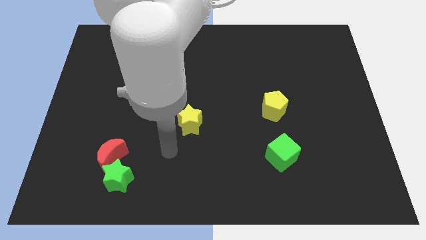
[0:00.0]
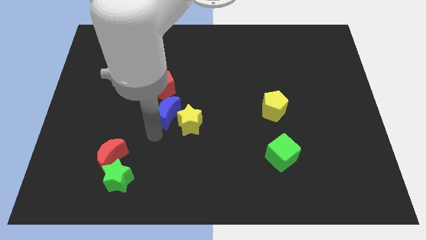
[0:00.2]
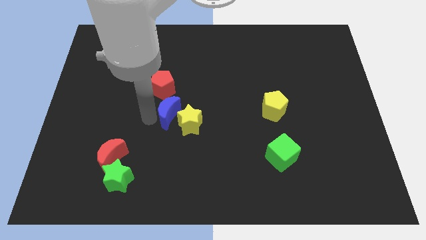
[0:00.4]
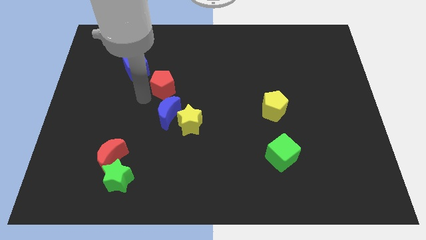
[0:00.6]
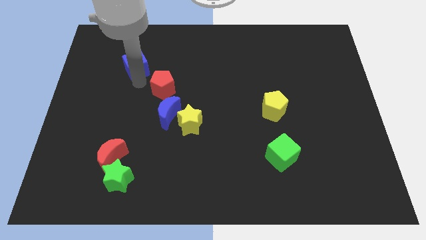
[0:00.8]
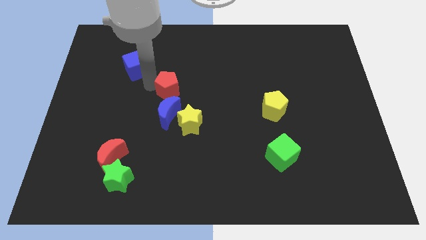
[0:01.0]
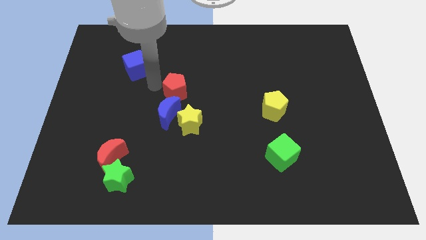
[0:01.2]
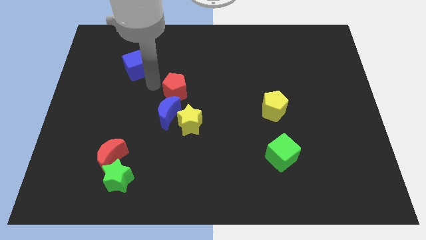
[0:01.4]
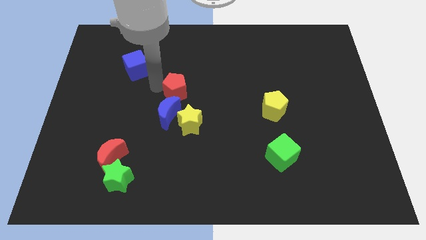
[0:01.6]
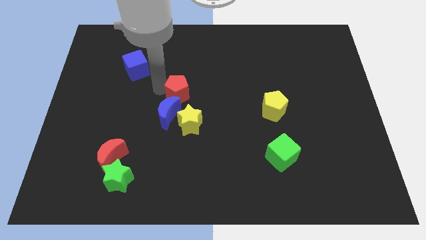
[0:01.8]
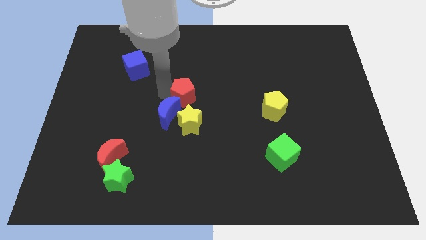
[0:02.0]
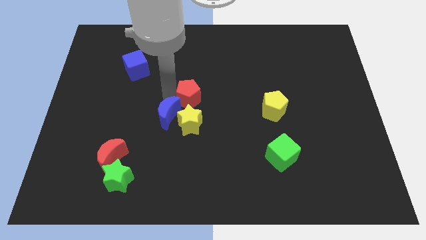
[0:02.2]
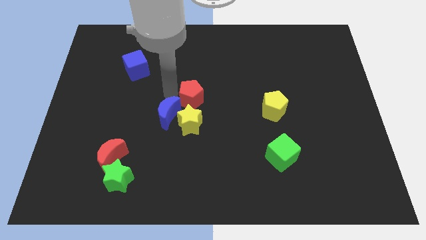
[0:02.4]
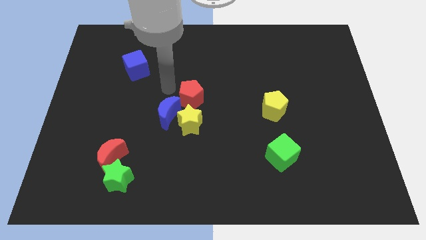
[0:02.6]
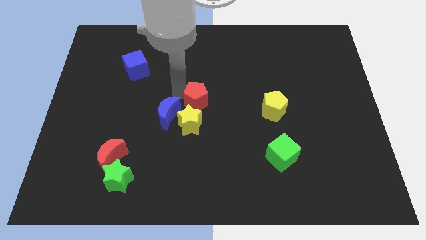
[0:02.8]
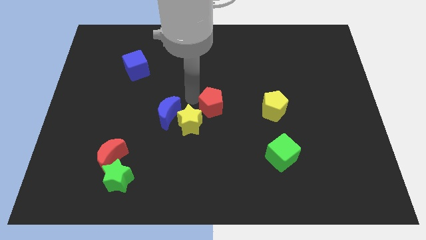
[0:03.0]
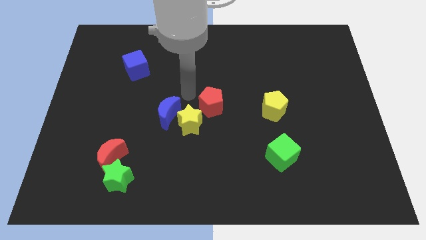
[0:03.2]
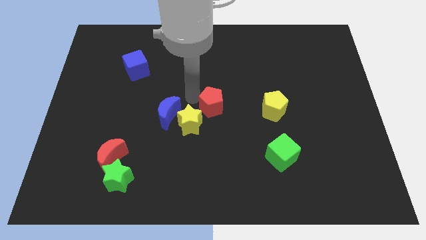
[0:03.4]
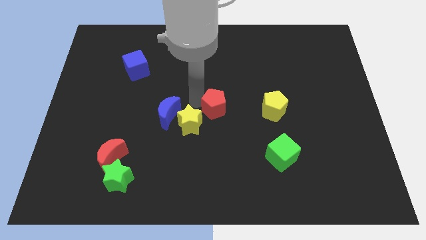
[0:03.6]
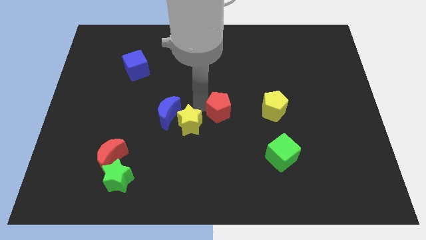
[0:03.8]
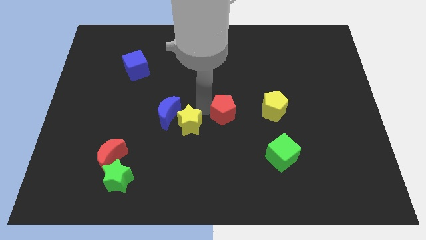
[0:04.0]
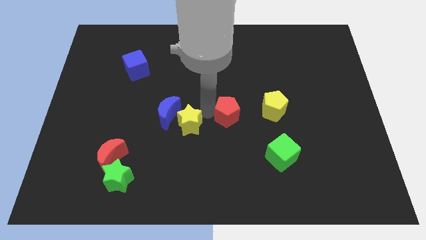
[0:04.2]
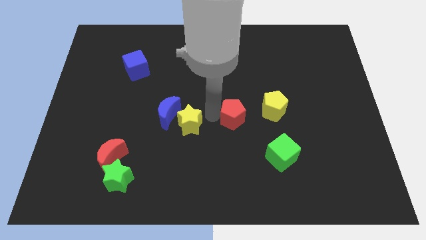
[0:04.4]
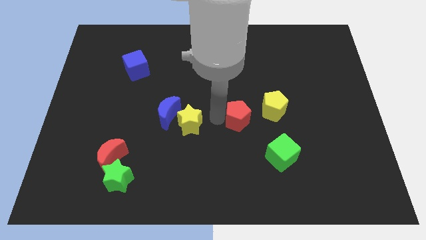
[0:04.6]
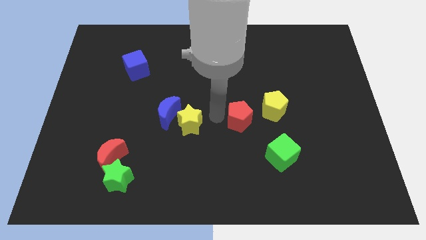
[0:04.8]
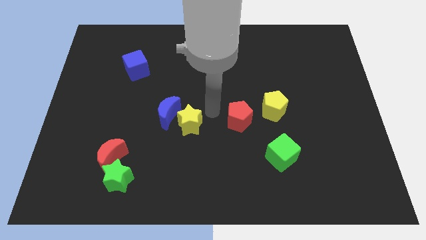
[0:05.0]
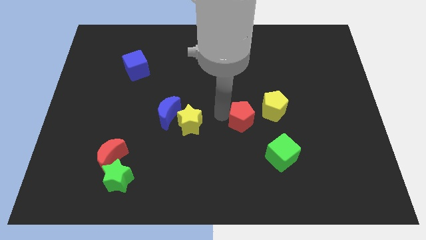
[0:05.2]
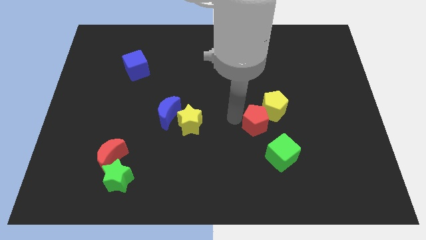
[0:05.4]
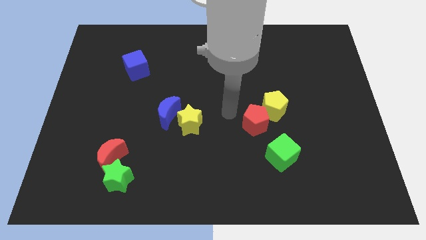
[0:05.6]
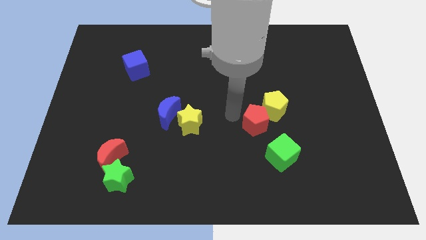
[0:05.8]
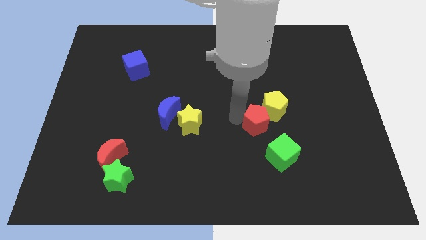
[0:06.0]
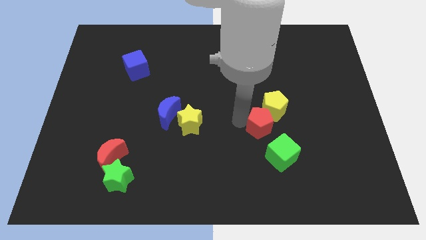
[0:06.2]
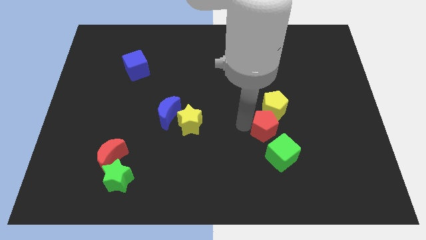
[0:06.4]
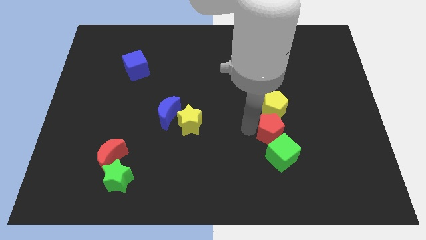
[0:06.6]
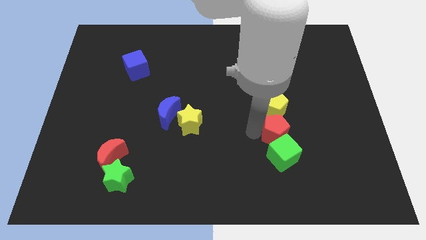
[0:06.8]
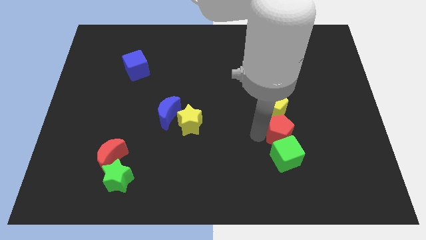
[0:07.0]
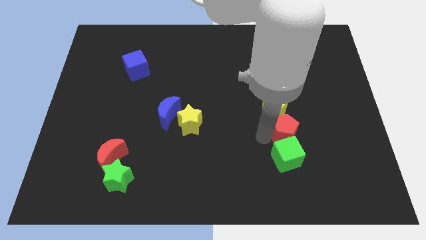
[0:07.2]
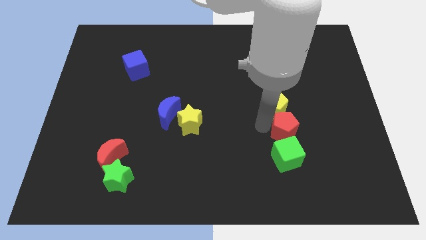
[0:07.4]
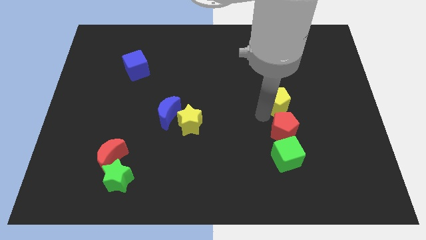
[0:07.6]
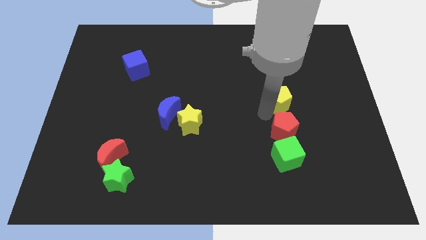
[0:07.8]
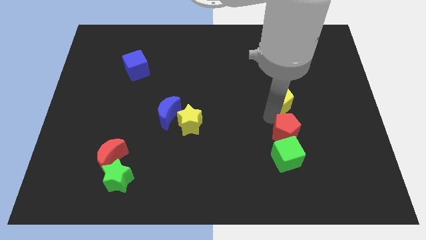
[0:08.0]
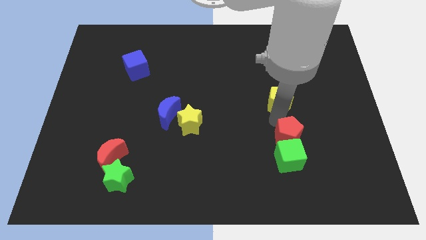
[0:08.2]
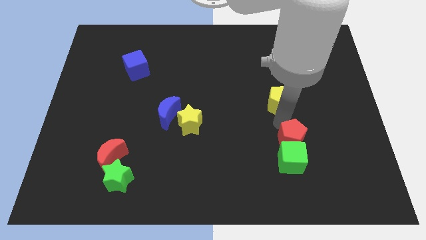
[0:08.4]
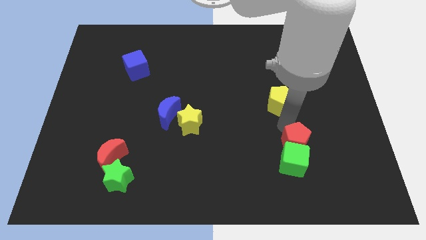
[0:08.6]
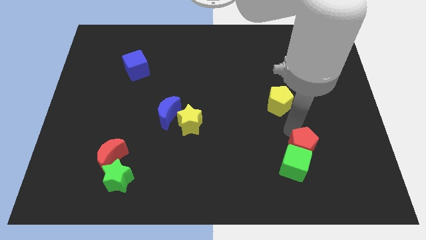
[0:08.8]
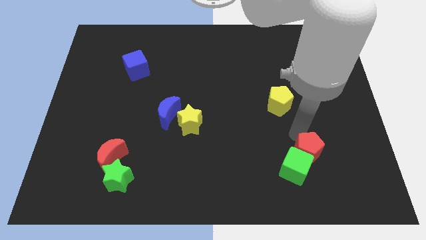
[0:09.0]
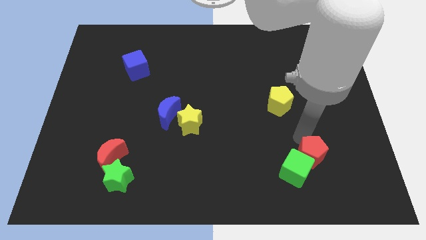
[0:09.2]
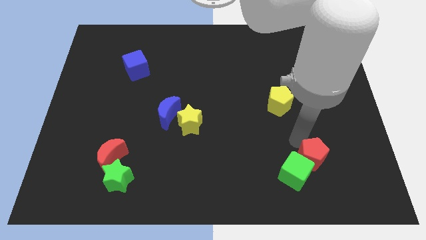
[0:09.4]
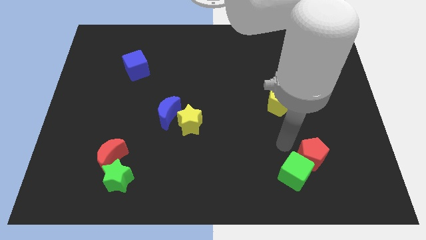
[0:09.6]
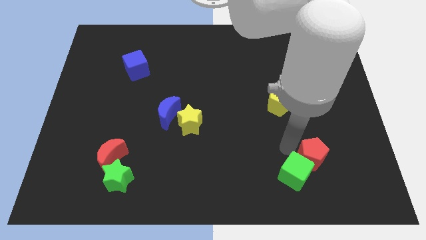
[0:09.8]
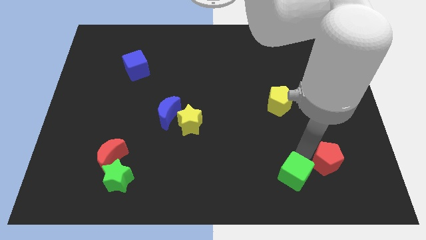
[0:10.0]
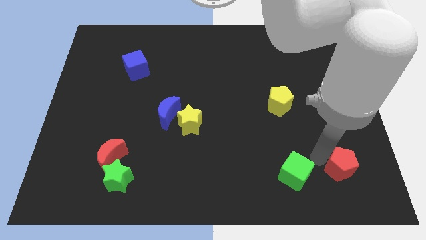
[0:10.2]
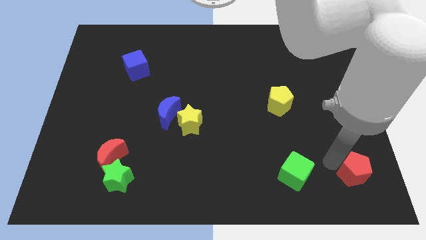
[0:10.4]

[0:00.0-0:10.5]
move the red pentagon to the bottom right

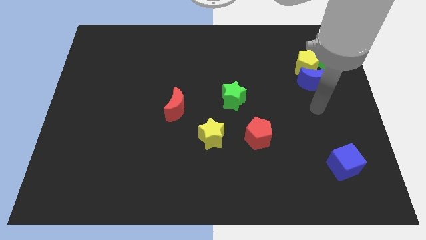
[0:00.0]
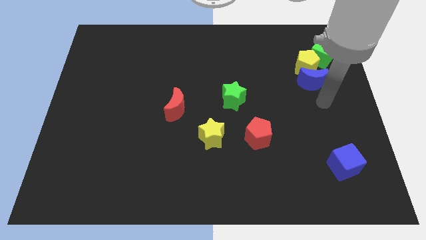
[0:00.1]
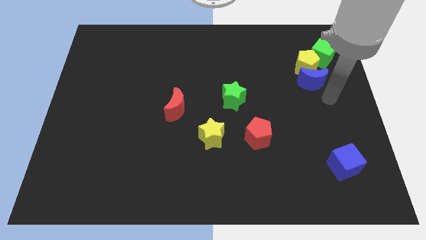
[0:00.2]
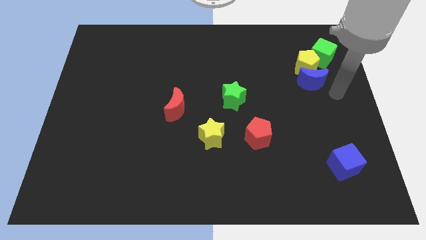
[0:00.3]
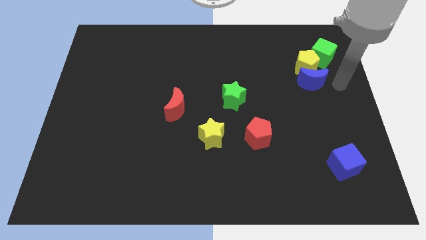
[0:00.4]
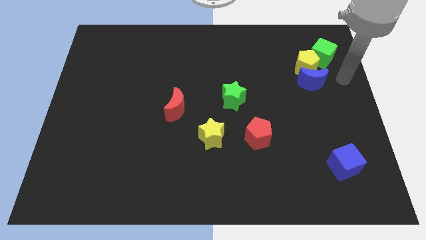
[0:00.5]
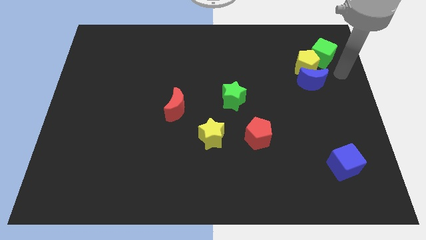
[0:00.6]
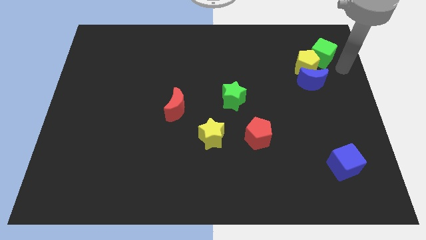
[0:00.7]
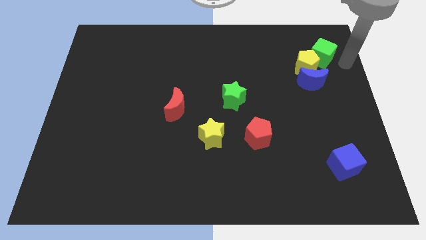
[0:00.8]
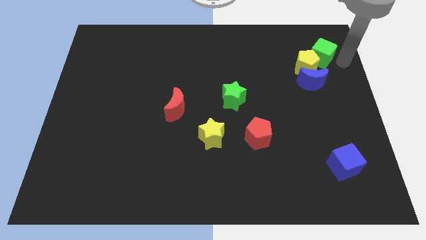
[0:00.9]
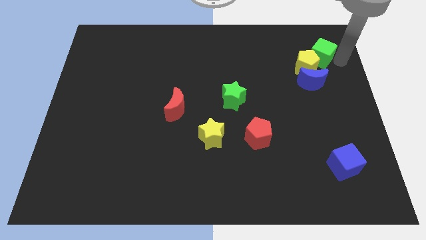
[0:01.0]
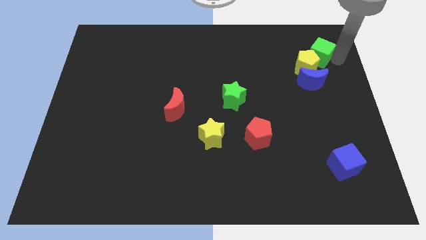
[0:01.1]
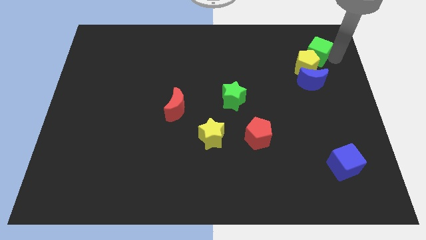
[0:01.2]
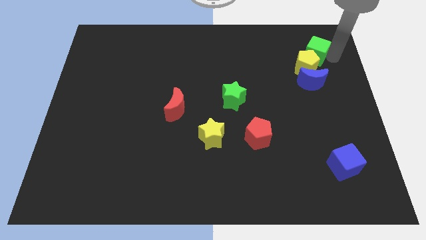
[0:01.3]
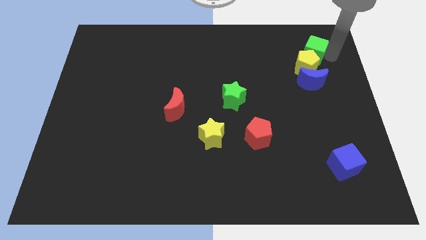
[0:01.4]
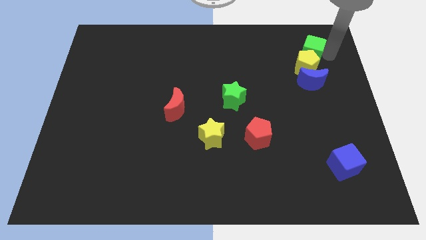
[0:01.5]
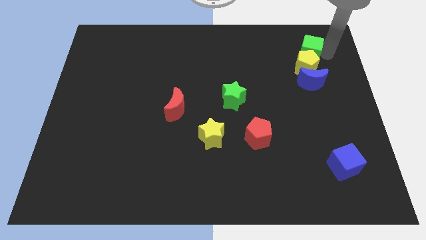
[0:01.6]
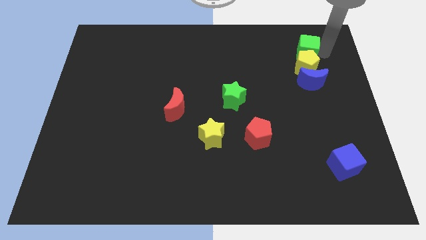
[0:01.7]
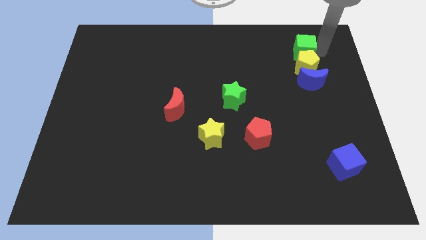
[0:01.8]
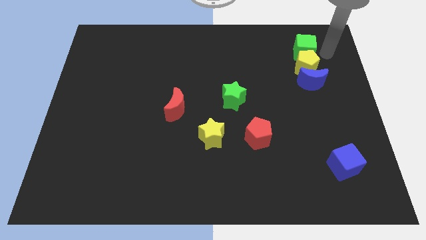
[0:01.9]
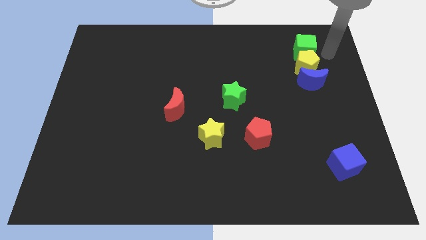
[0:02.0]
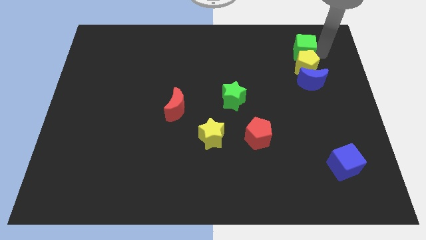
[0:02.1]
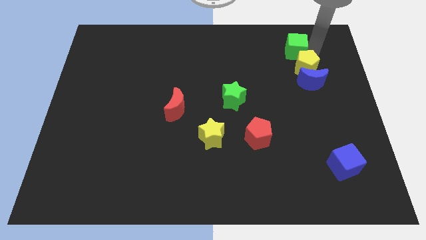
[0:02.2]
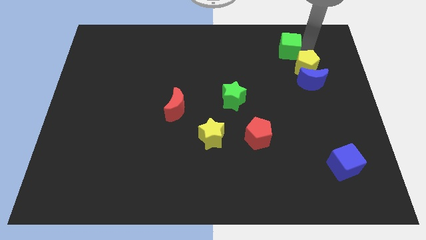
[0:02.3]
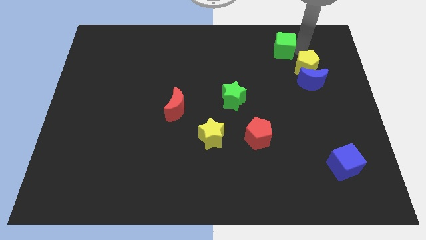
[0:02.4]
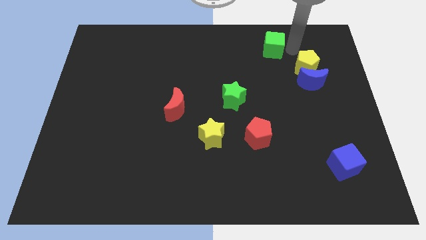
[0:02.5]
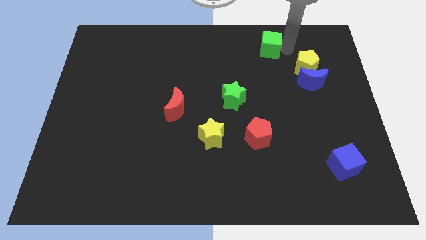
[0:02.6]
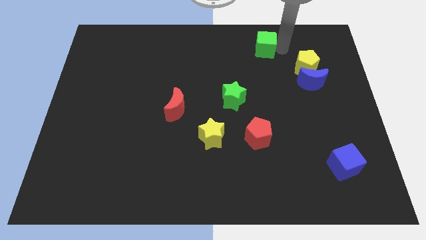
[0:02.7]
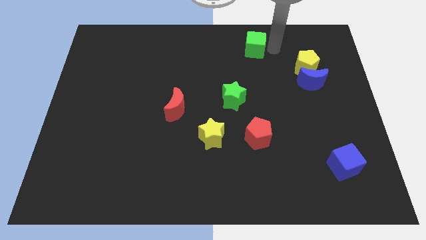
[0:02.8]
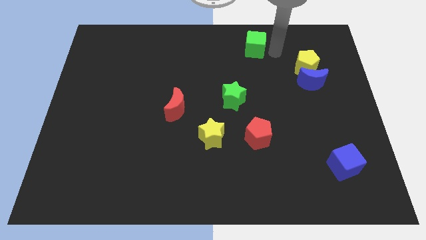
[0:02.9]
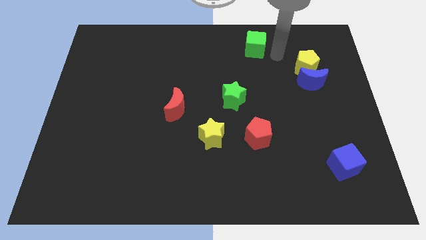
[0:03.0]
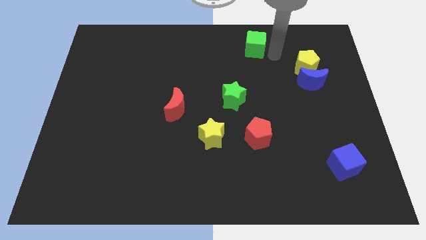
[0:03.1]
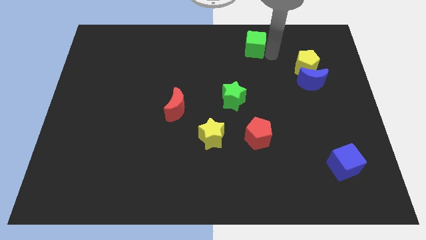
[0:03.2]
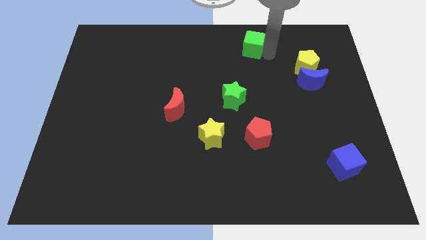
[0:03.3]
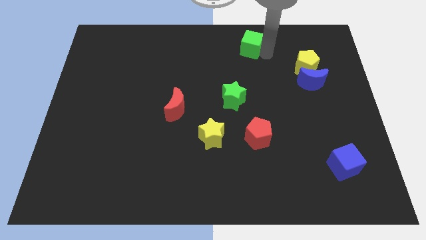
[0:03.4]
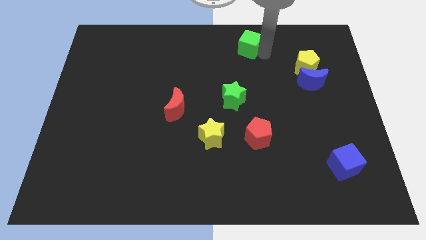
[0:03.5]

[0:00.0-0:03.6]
put the green cube to the top
